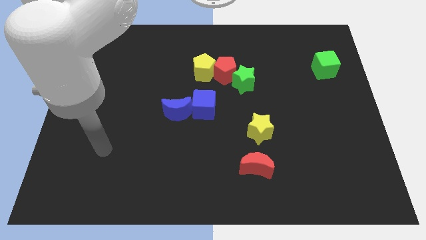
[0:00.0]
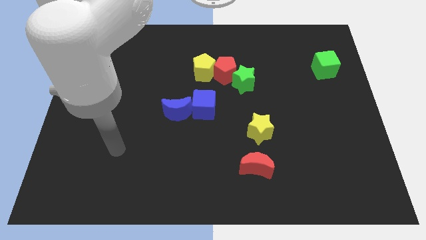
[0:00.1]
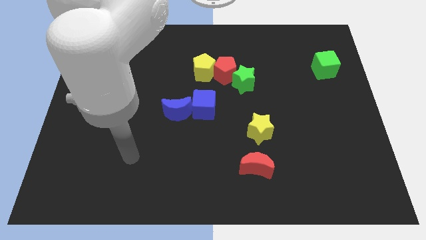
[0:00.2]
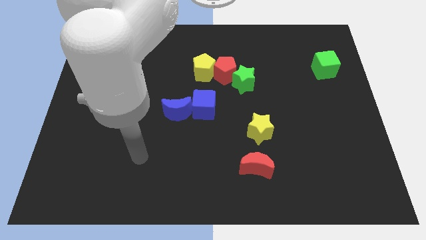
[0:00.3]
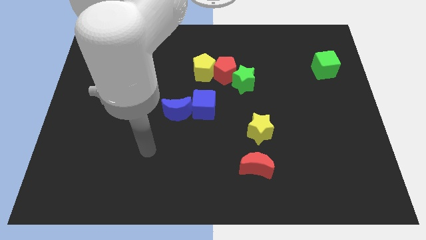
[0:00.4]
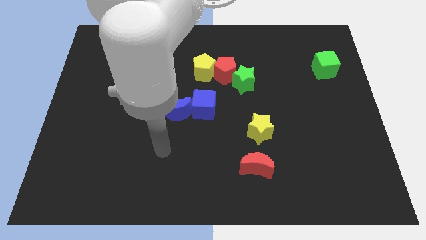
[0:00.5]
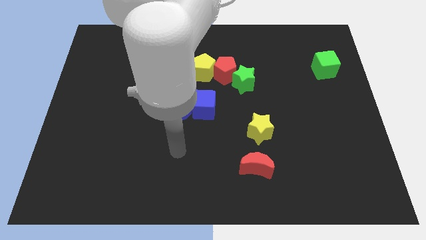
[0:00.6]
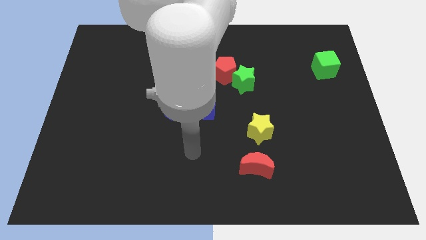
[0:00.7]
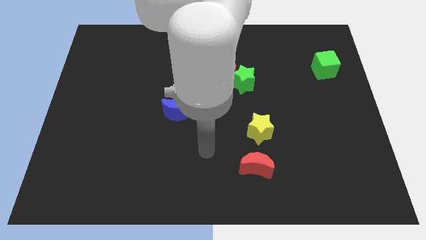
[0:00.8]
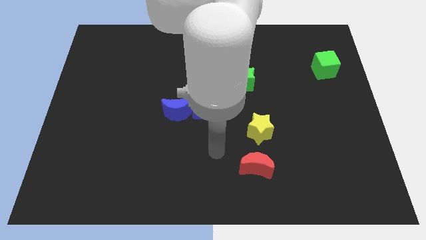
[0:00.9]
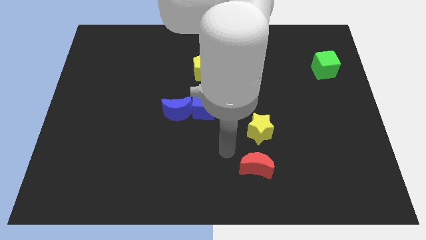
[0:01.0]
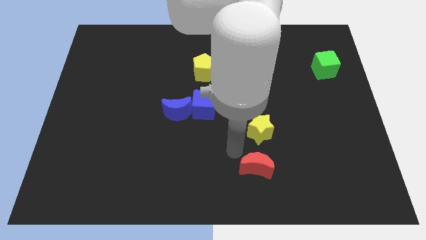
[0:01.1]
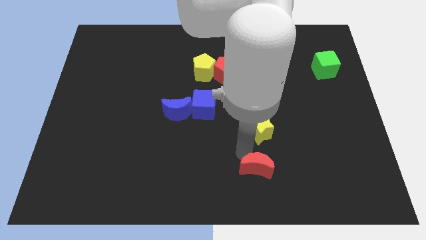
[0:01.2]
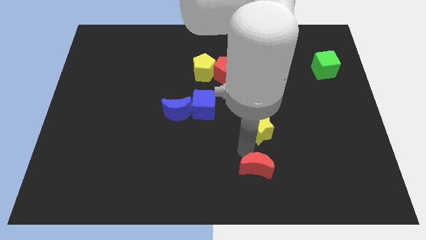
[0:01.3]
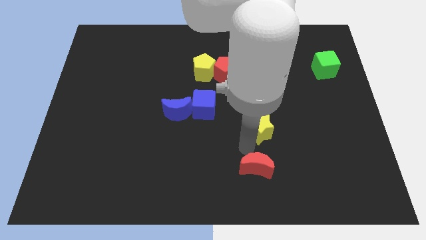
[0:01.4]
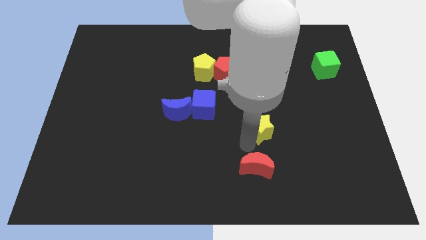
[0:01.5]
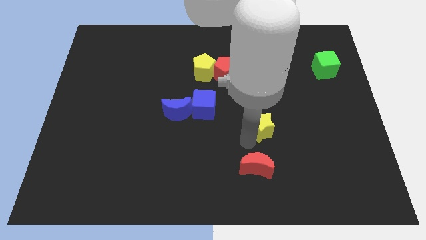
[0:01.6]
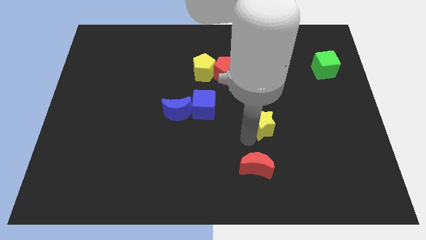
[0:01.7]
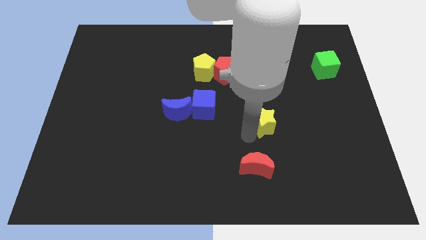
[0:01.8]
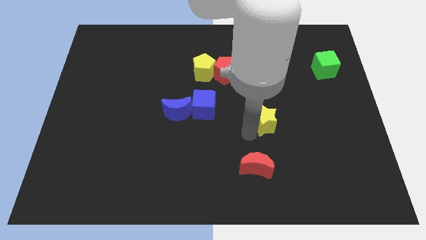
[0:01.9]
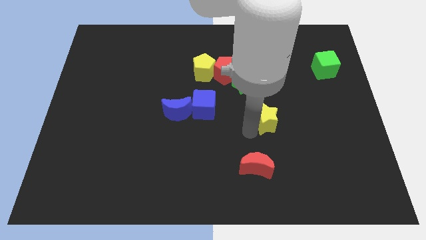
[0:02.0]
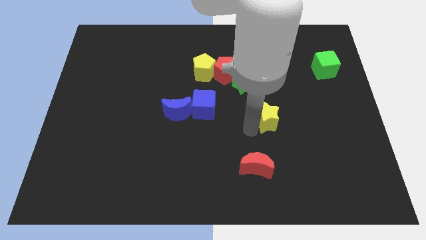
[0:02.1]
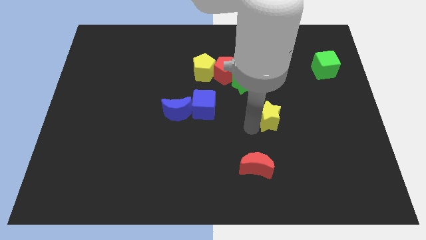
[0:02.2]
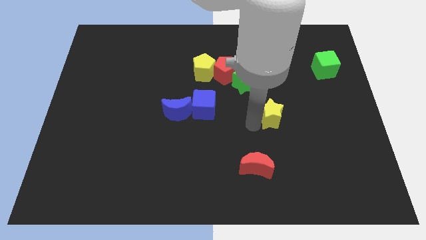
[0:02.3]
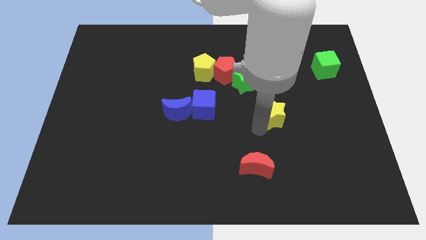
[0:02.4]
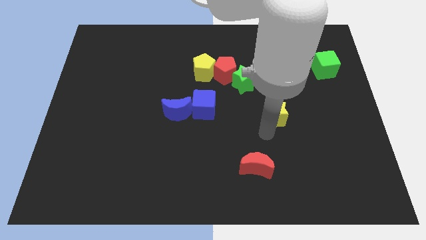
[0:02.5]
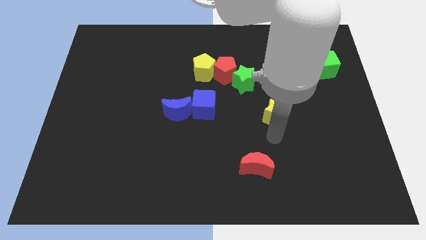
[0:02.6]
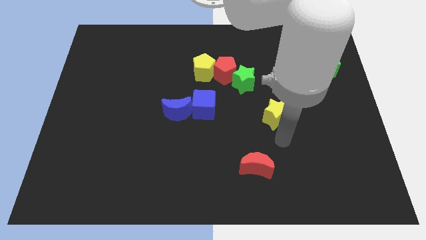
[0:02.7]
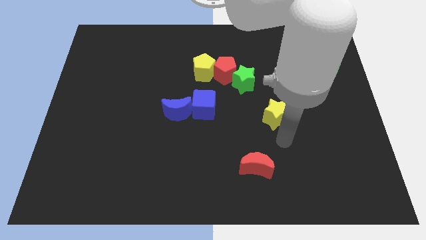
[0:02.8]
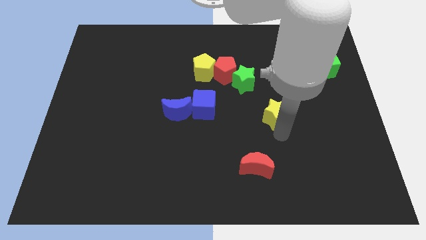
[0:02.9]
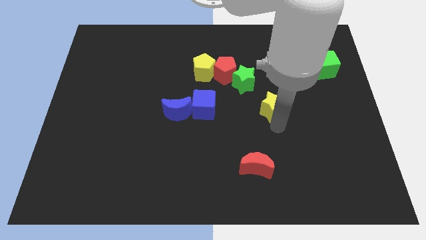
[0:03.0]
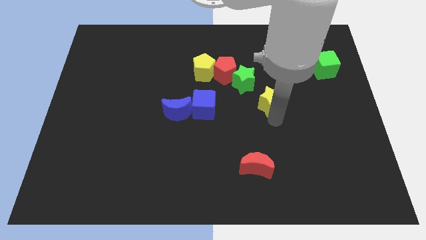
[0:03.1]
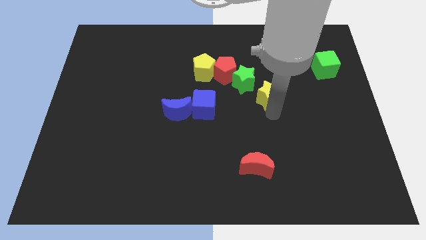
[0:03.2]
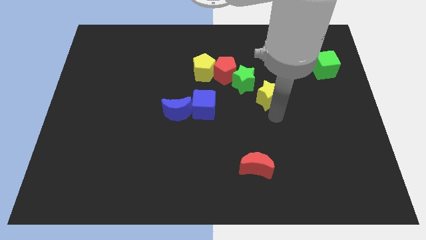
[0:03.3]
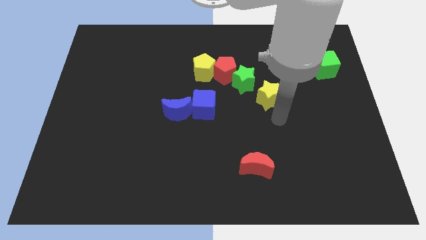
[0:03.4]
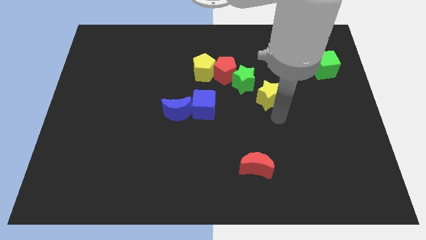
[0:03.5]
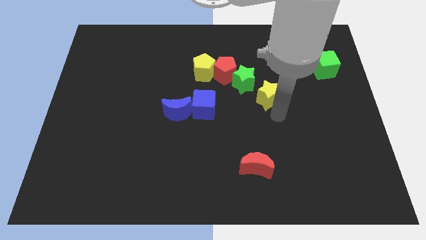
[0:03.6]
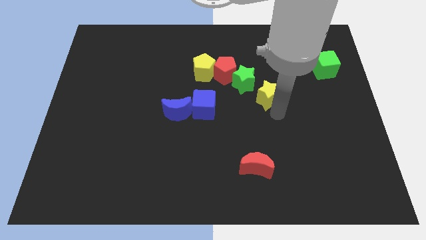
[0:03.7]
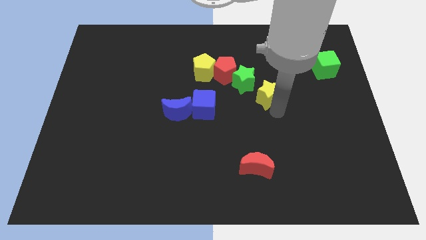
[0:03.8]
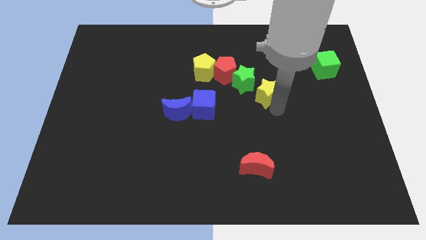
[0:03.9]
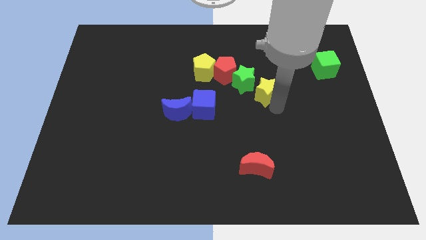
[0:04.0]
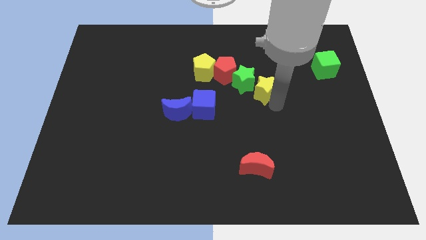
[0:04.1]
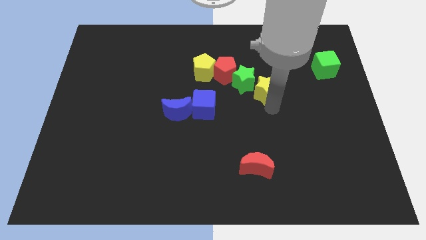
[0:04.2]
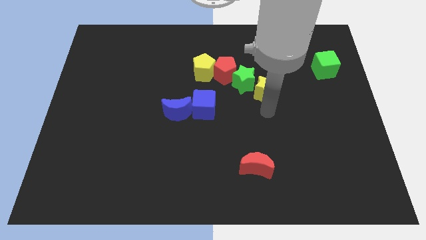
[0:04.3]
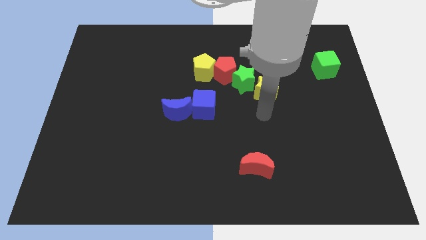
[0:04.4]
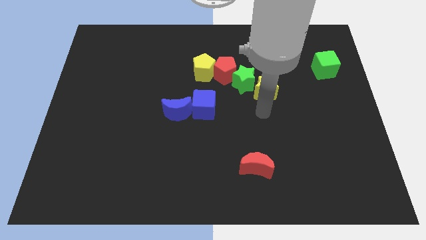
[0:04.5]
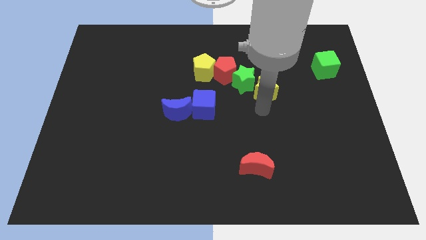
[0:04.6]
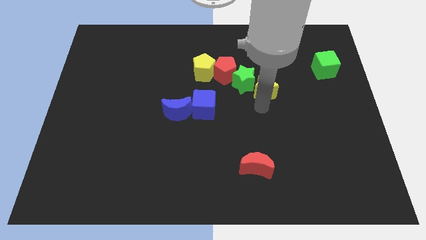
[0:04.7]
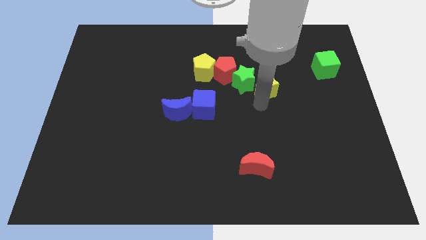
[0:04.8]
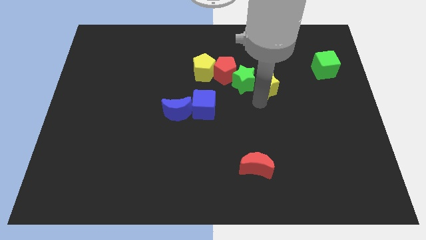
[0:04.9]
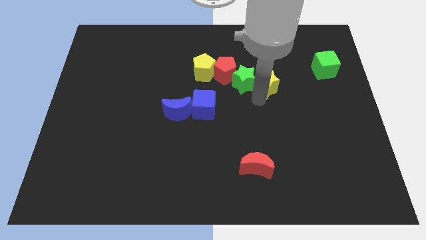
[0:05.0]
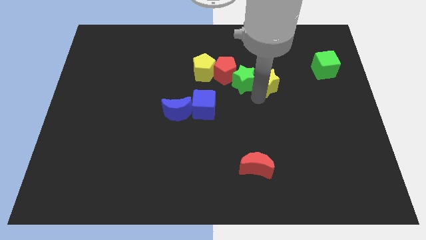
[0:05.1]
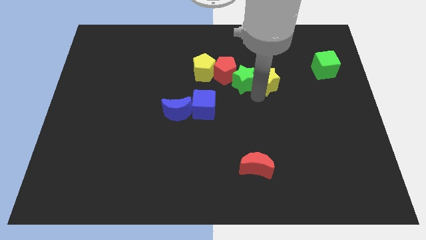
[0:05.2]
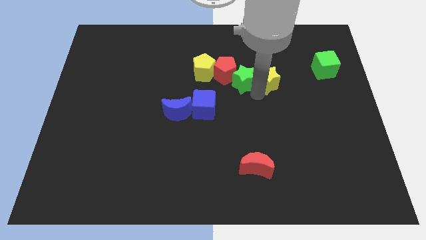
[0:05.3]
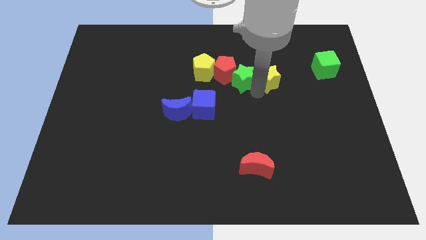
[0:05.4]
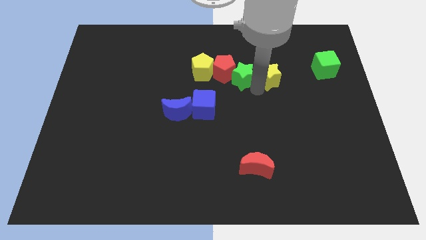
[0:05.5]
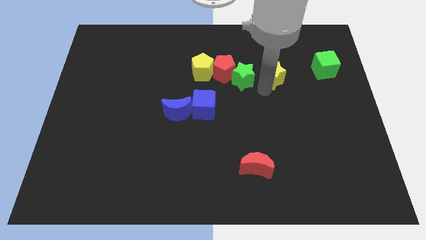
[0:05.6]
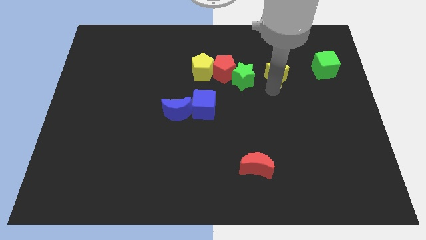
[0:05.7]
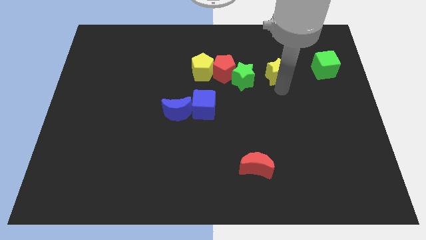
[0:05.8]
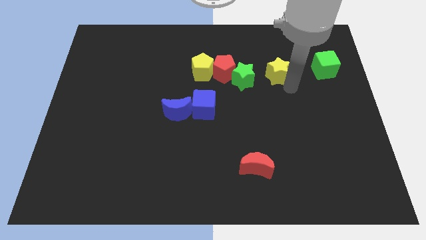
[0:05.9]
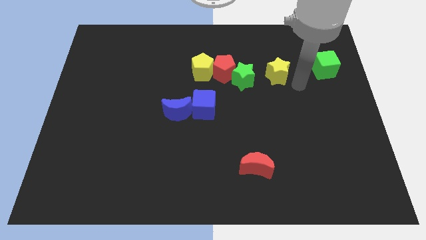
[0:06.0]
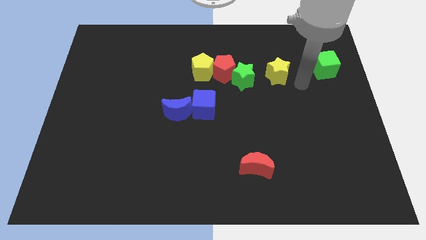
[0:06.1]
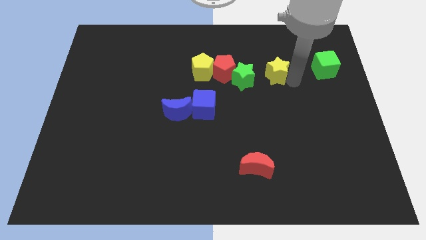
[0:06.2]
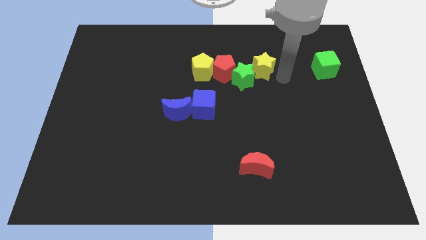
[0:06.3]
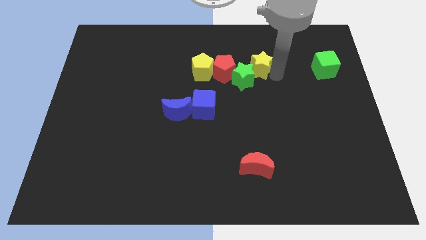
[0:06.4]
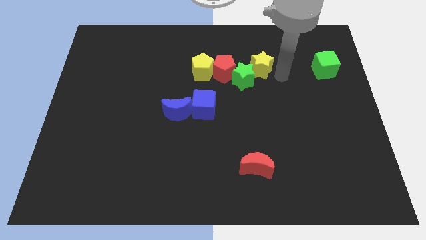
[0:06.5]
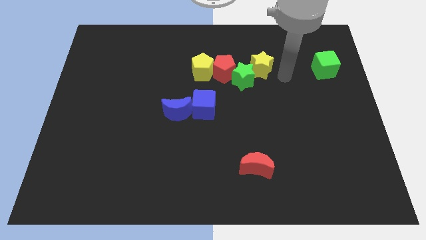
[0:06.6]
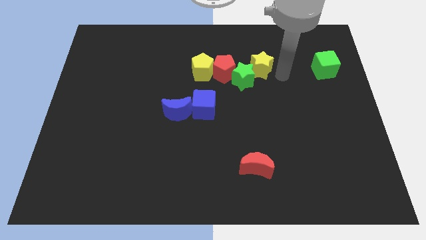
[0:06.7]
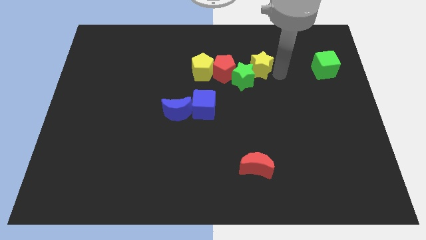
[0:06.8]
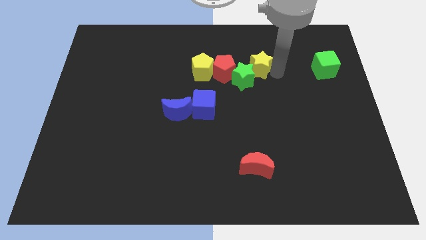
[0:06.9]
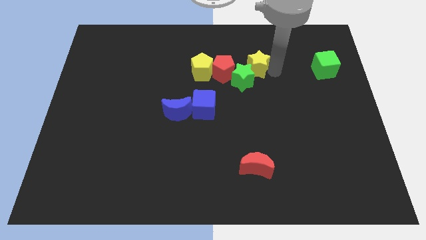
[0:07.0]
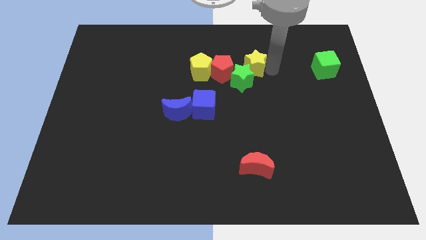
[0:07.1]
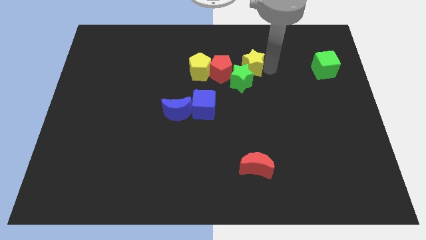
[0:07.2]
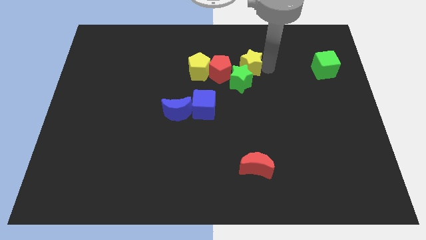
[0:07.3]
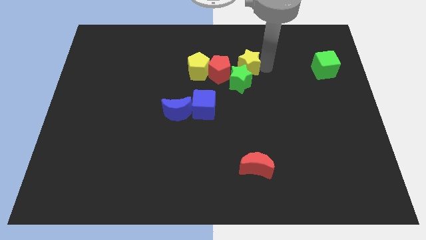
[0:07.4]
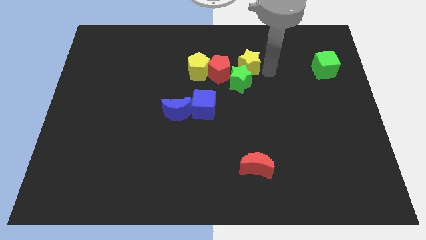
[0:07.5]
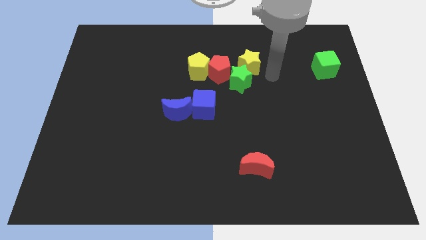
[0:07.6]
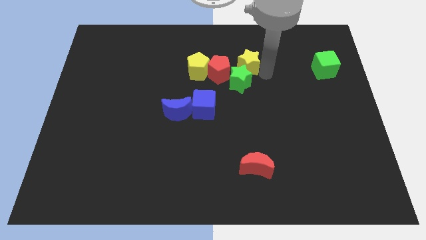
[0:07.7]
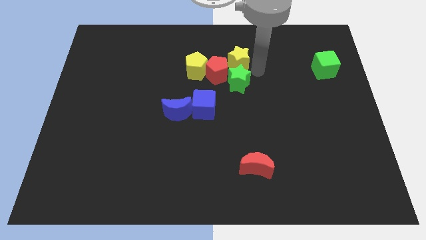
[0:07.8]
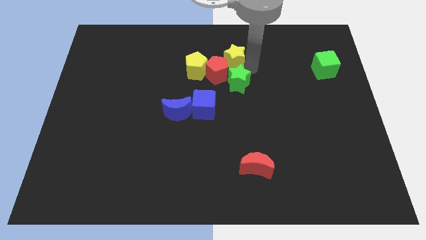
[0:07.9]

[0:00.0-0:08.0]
move the yellow star diagonally up and to the right of the yellow pentagon
